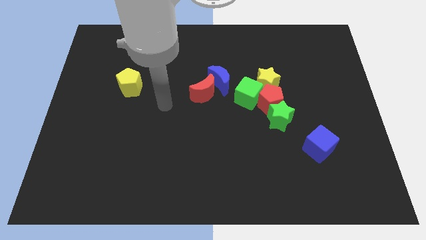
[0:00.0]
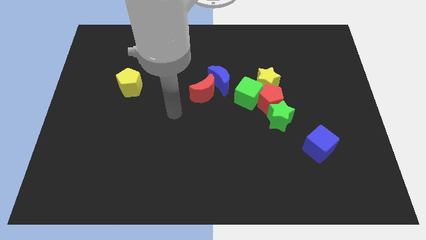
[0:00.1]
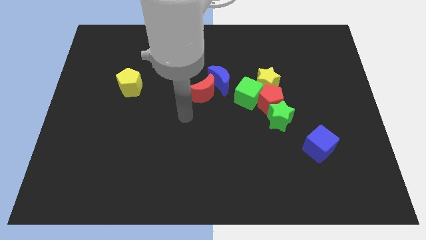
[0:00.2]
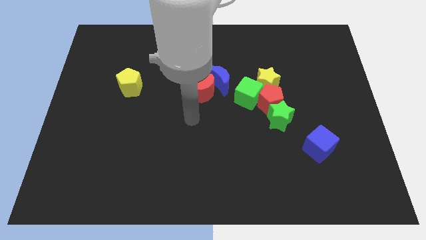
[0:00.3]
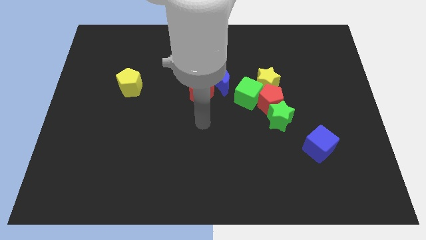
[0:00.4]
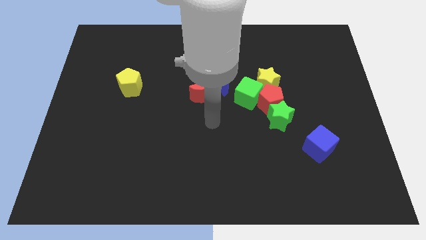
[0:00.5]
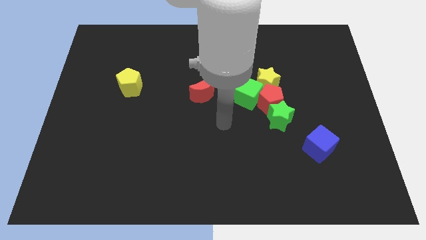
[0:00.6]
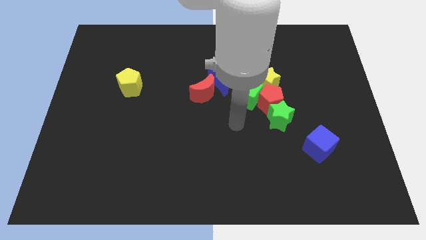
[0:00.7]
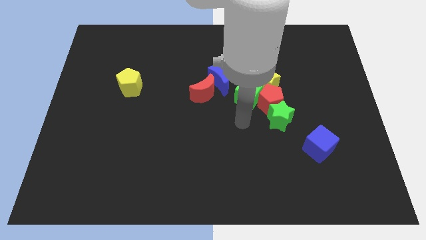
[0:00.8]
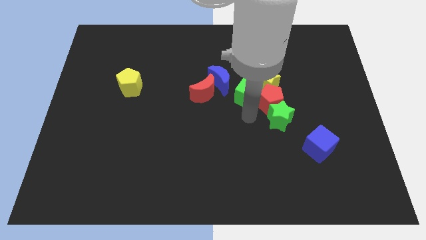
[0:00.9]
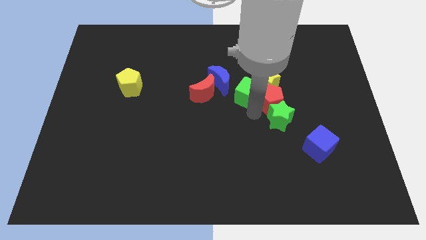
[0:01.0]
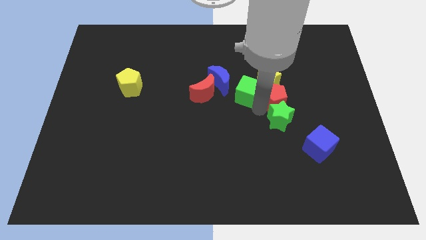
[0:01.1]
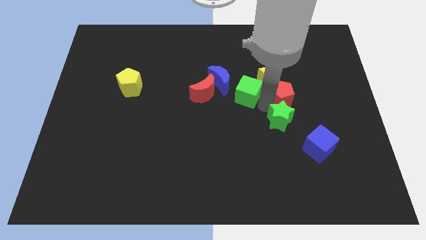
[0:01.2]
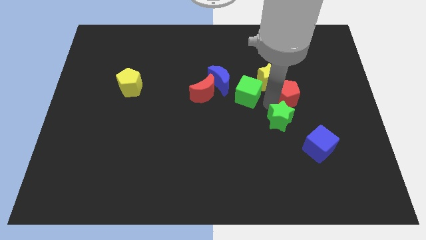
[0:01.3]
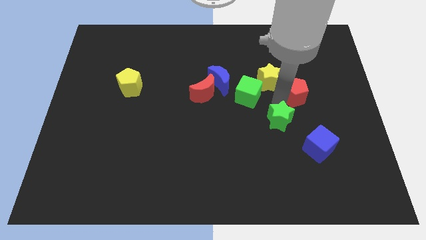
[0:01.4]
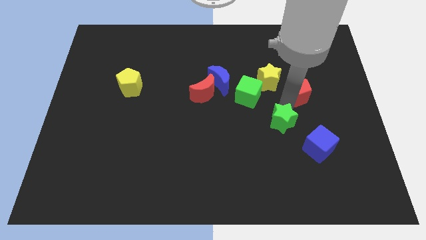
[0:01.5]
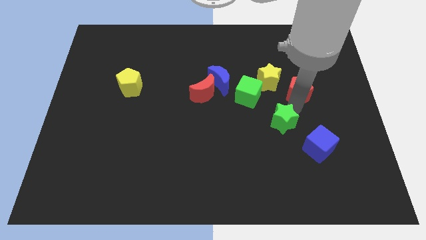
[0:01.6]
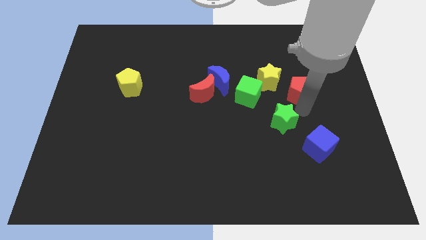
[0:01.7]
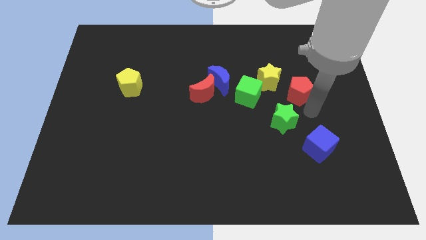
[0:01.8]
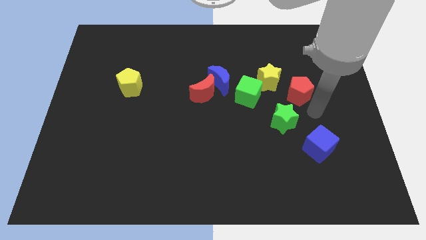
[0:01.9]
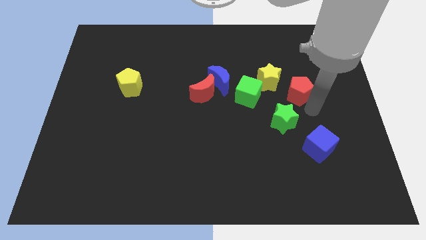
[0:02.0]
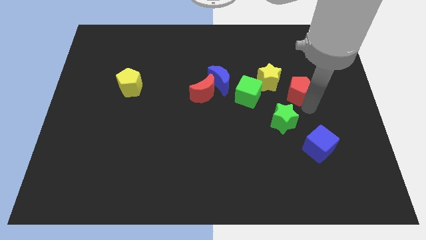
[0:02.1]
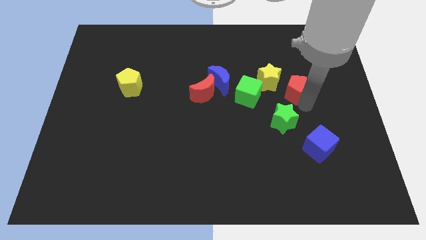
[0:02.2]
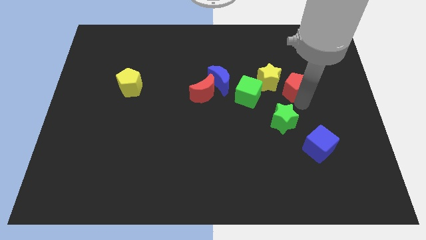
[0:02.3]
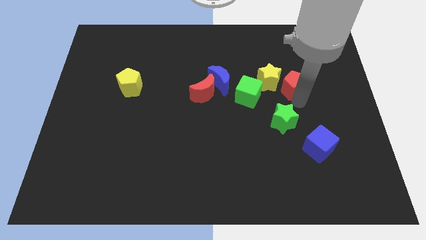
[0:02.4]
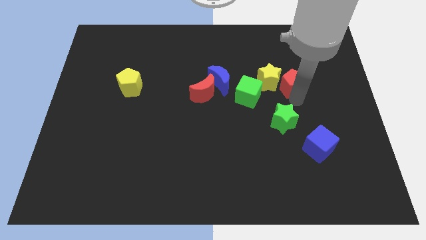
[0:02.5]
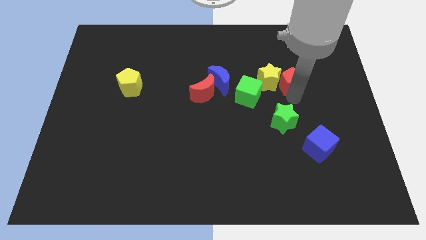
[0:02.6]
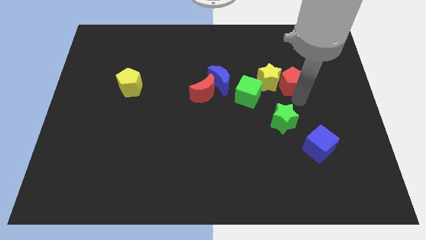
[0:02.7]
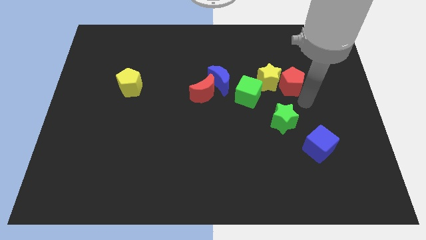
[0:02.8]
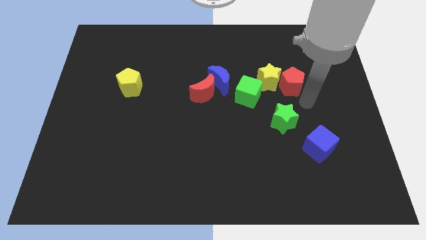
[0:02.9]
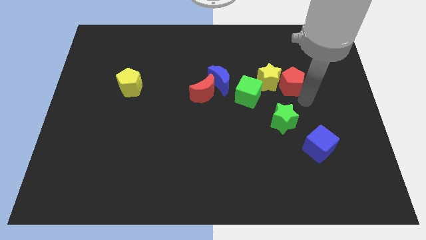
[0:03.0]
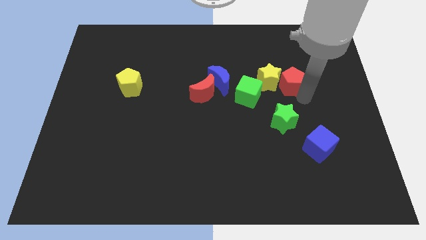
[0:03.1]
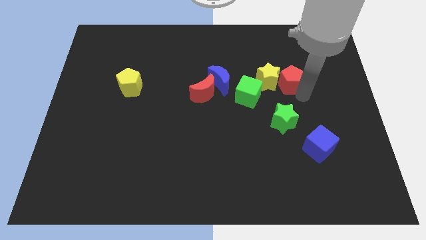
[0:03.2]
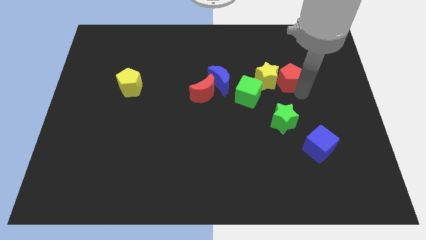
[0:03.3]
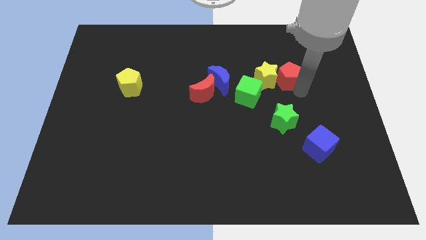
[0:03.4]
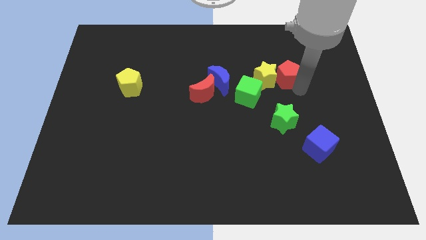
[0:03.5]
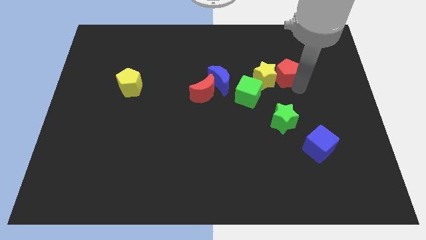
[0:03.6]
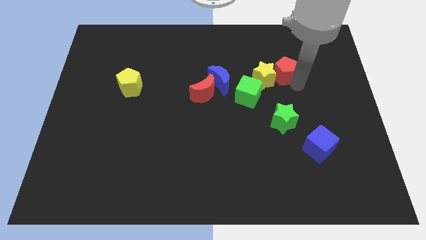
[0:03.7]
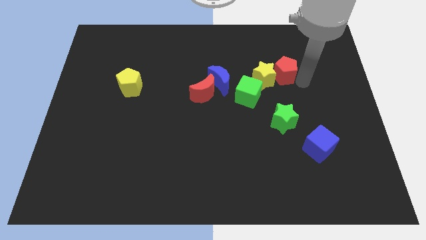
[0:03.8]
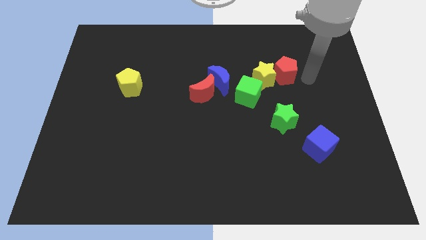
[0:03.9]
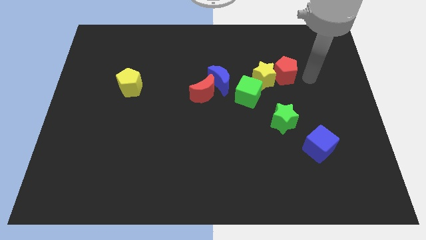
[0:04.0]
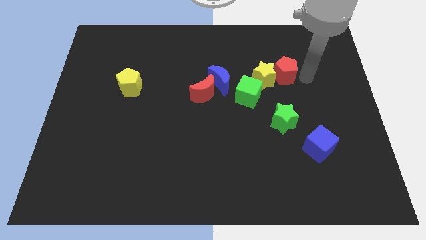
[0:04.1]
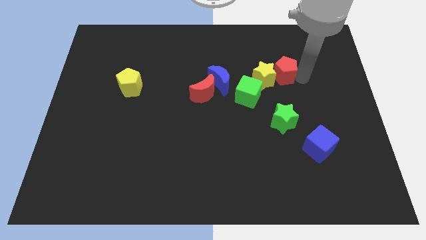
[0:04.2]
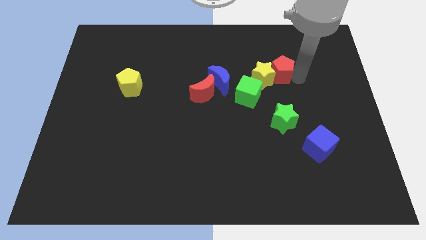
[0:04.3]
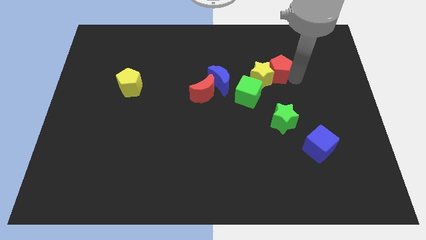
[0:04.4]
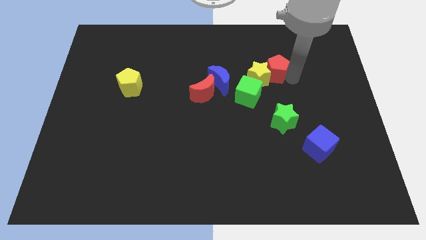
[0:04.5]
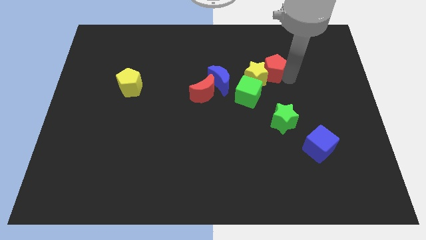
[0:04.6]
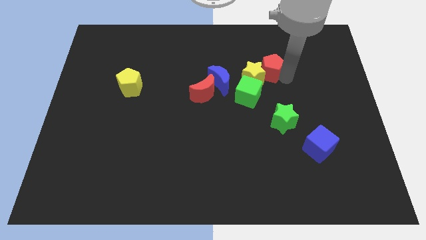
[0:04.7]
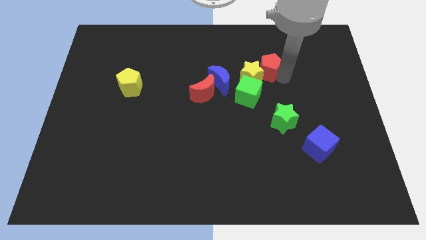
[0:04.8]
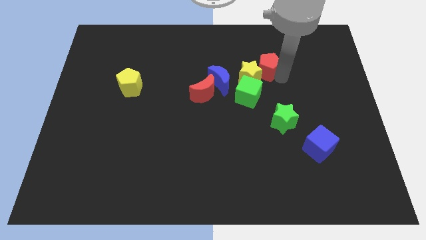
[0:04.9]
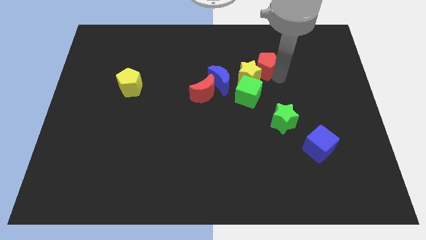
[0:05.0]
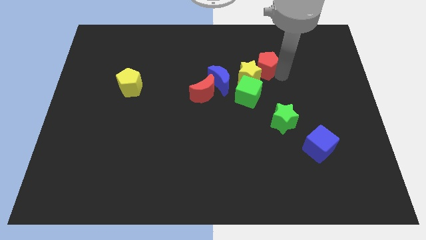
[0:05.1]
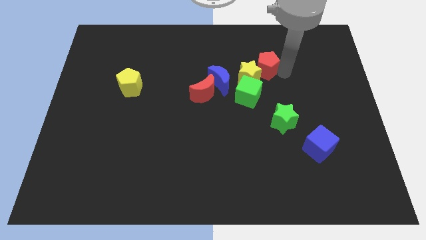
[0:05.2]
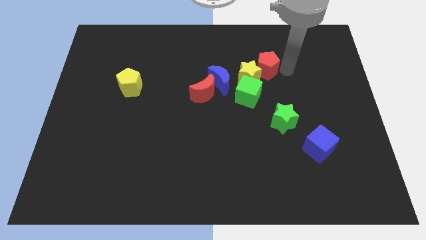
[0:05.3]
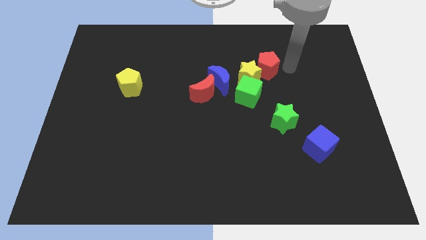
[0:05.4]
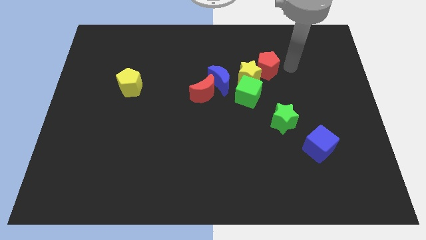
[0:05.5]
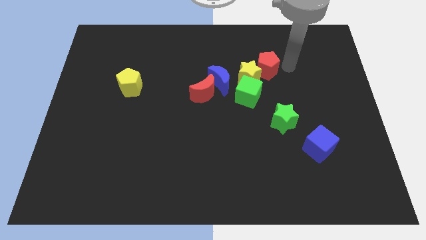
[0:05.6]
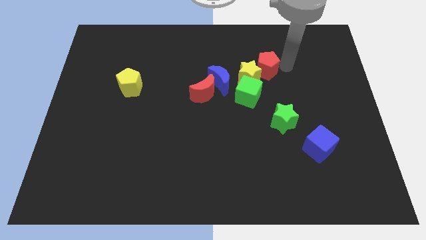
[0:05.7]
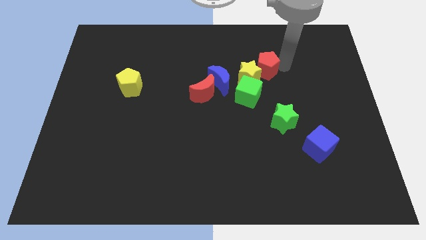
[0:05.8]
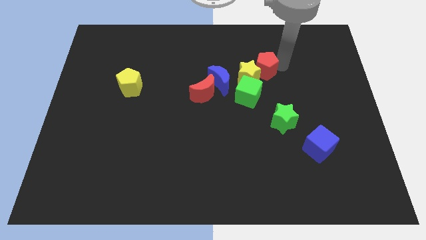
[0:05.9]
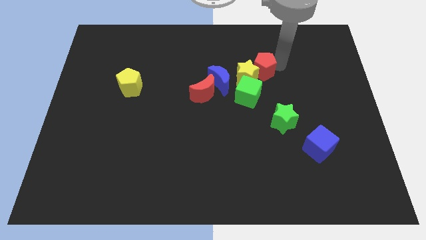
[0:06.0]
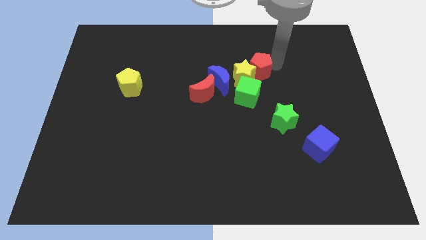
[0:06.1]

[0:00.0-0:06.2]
slightly slide the red pentagon upwards and left

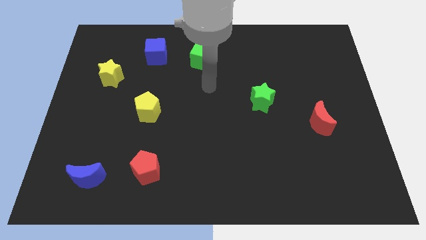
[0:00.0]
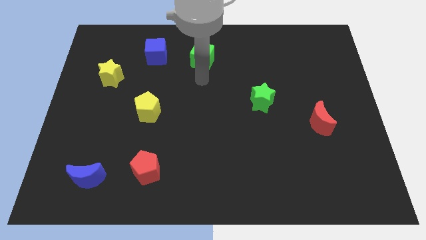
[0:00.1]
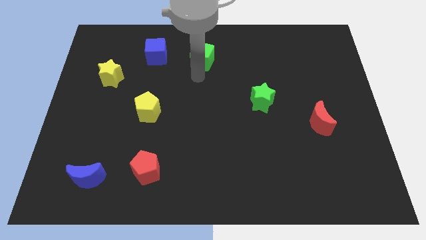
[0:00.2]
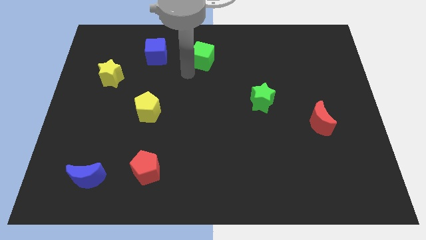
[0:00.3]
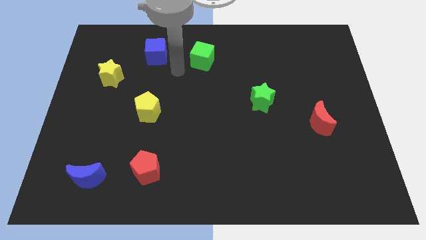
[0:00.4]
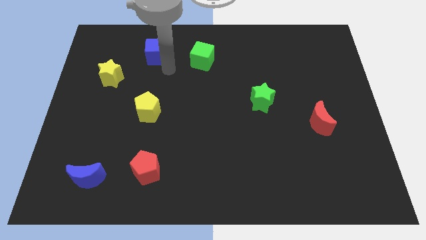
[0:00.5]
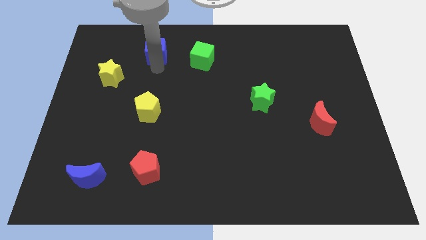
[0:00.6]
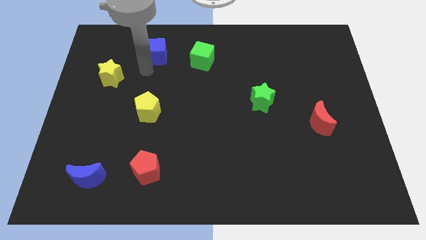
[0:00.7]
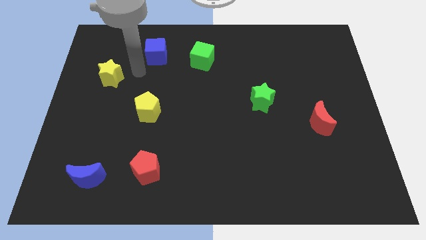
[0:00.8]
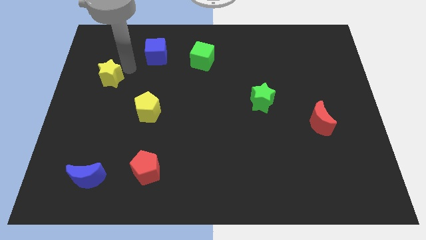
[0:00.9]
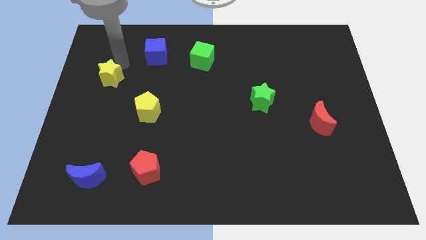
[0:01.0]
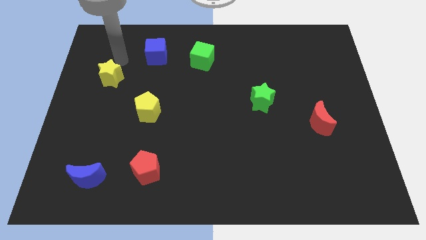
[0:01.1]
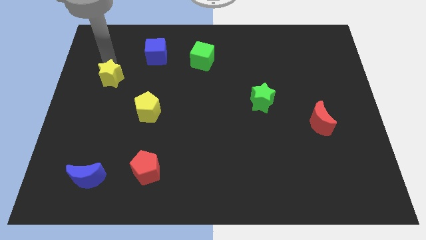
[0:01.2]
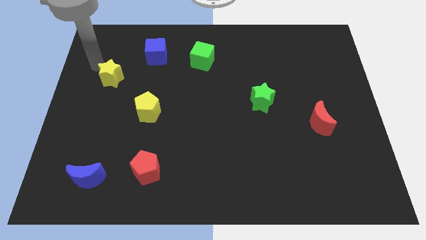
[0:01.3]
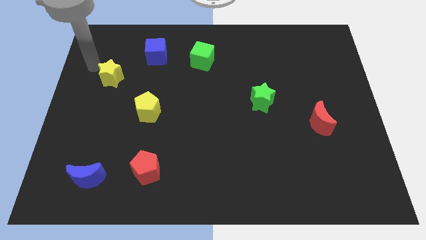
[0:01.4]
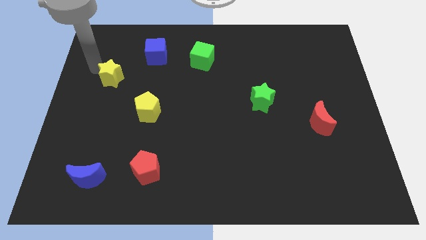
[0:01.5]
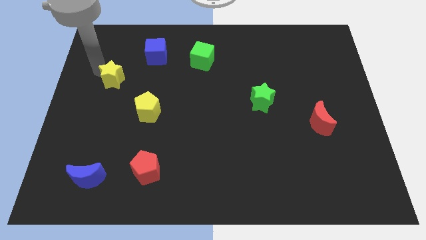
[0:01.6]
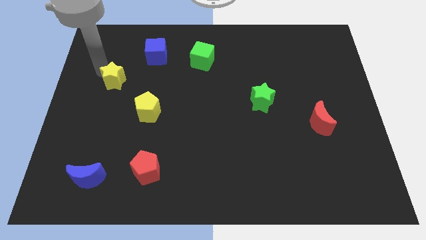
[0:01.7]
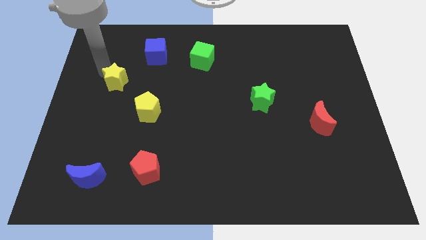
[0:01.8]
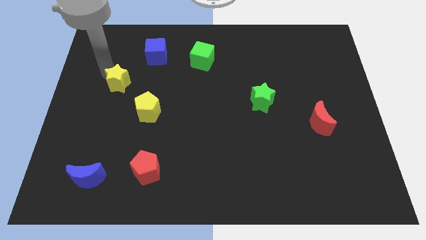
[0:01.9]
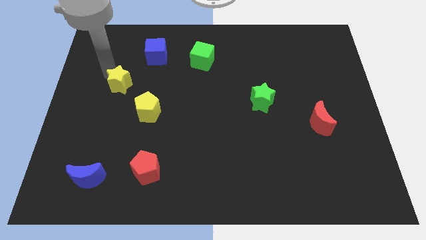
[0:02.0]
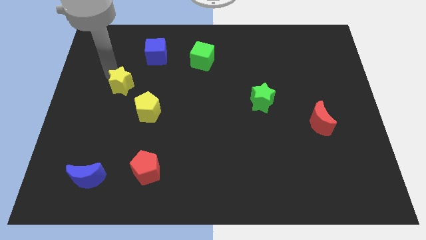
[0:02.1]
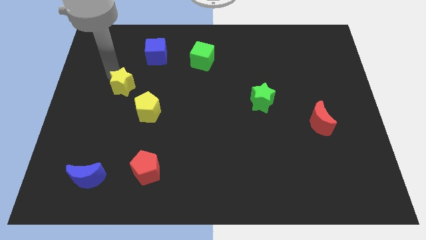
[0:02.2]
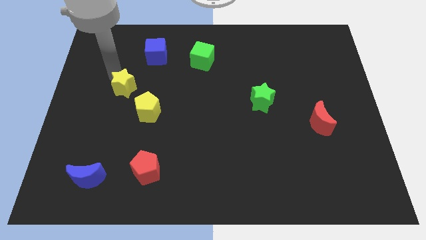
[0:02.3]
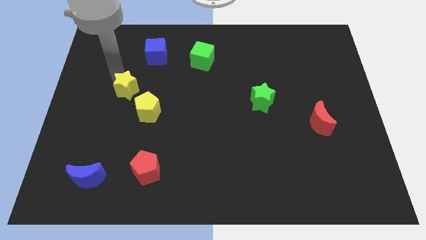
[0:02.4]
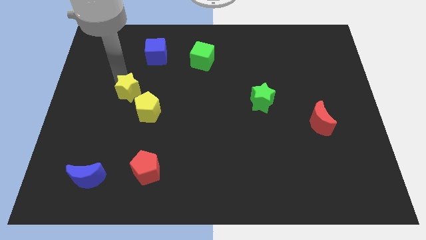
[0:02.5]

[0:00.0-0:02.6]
slightly slide the yellow star diagonally down and right
